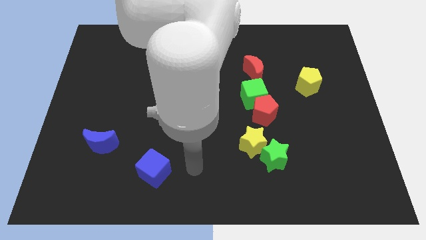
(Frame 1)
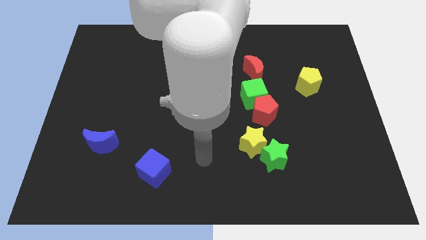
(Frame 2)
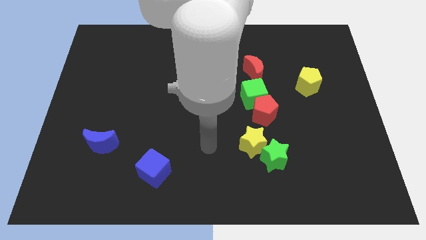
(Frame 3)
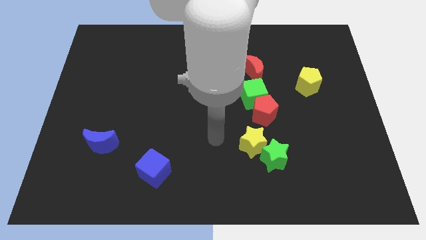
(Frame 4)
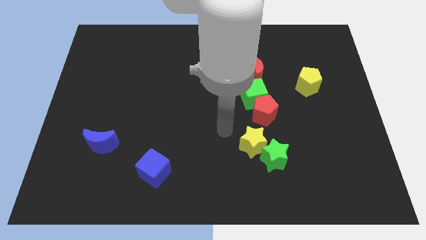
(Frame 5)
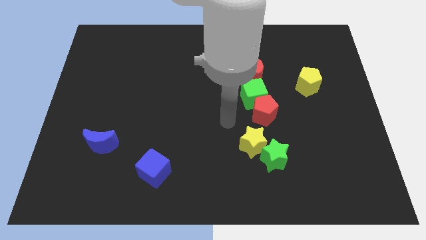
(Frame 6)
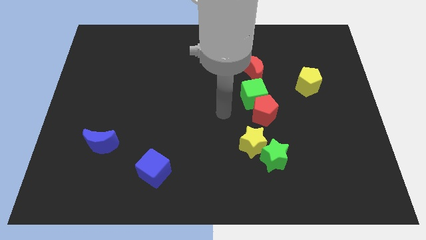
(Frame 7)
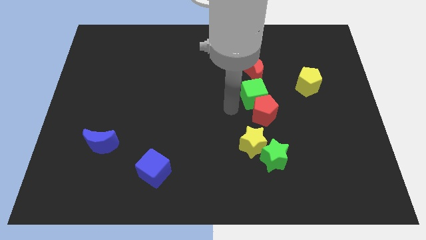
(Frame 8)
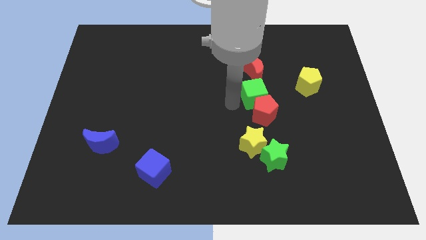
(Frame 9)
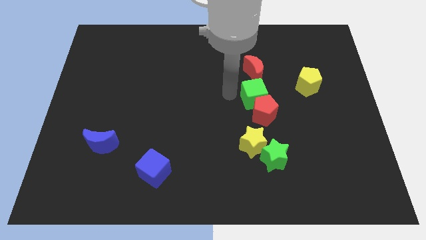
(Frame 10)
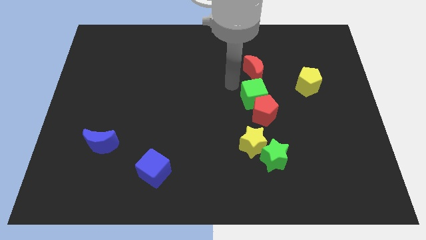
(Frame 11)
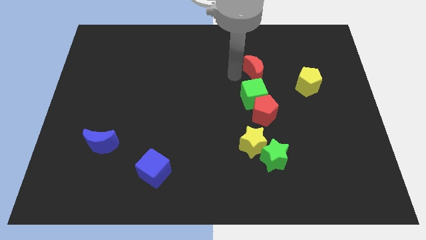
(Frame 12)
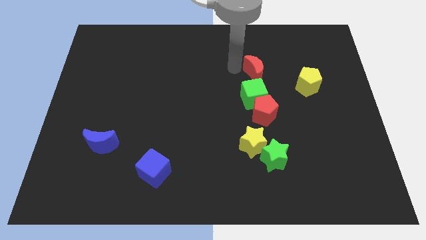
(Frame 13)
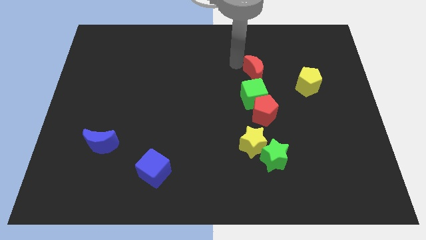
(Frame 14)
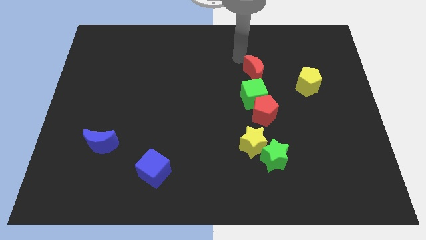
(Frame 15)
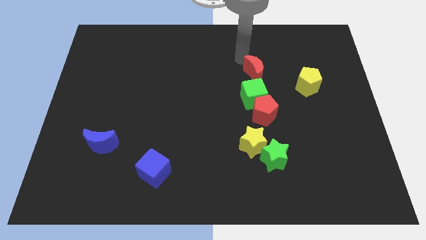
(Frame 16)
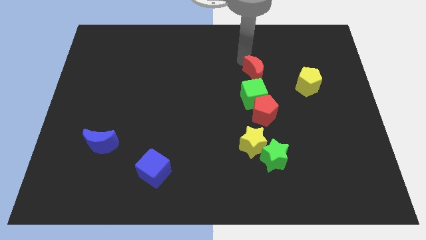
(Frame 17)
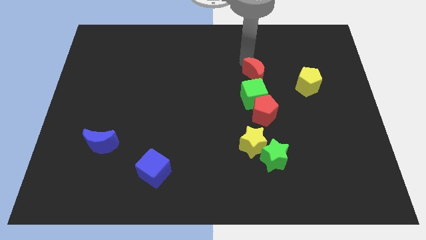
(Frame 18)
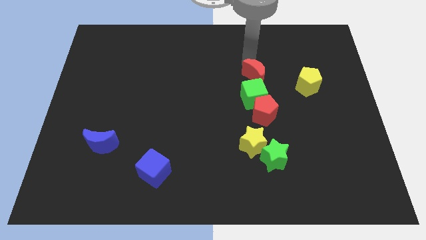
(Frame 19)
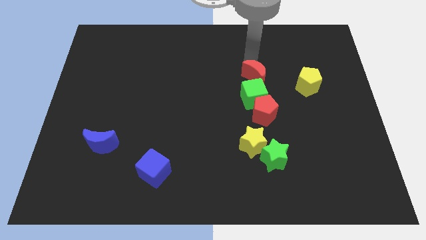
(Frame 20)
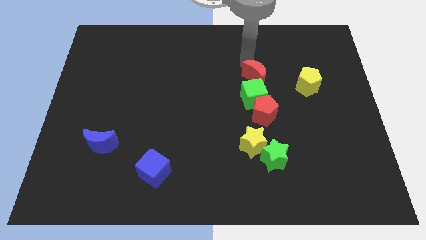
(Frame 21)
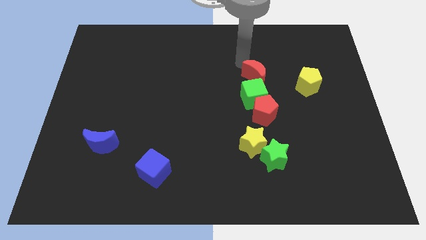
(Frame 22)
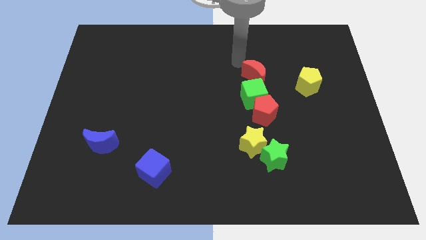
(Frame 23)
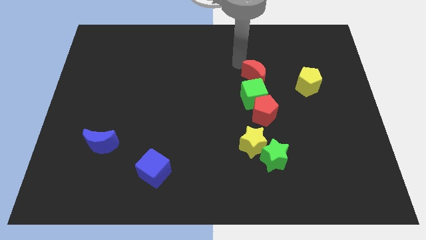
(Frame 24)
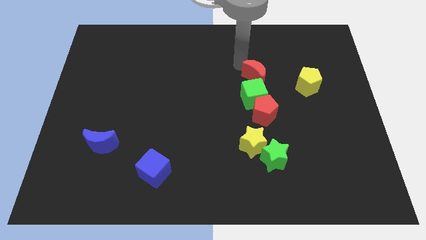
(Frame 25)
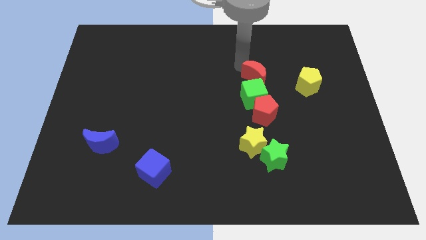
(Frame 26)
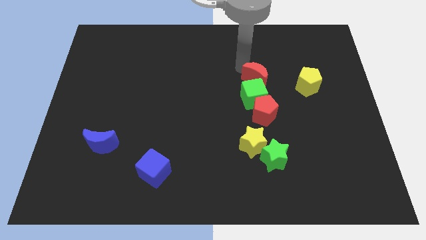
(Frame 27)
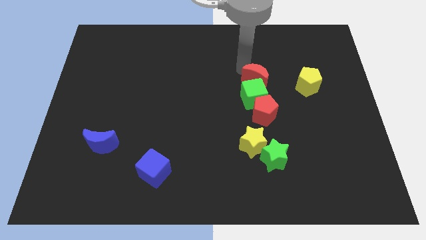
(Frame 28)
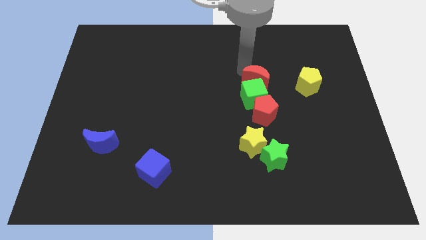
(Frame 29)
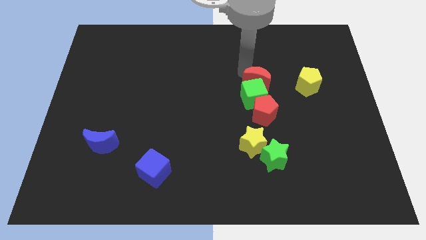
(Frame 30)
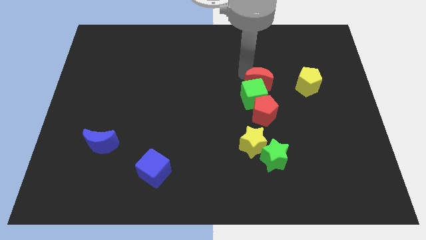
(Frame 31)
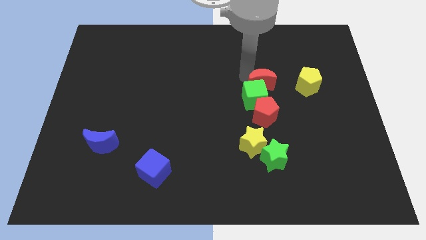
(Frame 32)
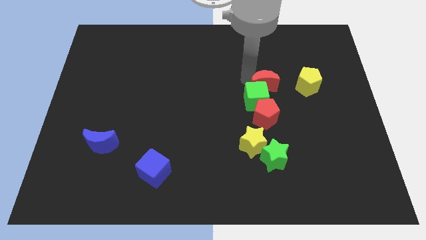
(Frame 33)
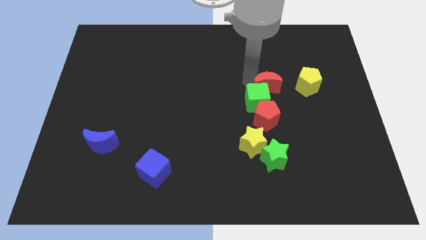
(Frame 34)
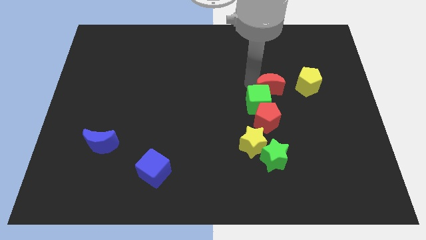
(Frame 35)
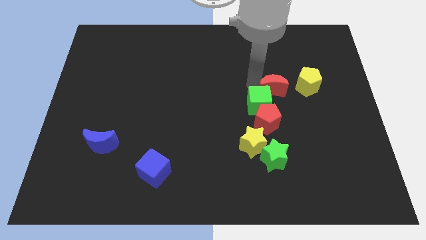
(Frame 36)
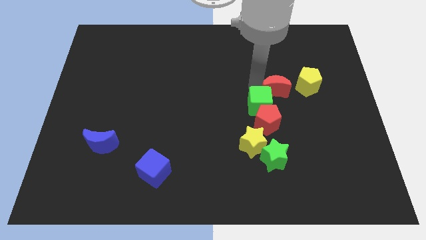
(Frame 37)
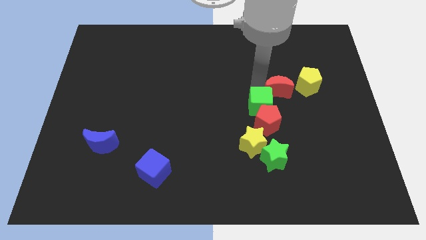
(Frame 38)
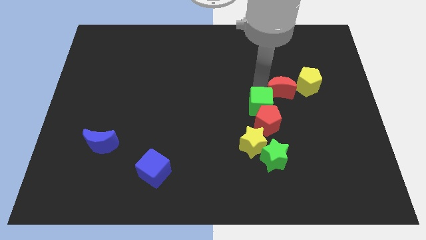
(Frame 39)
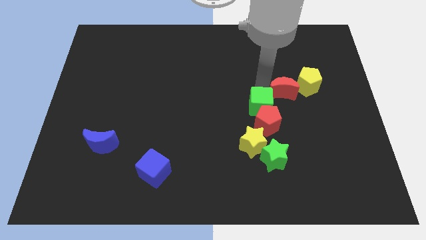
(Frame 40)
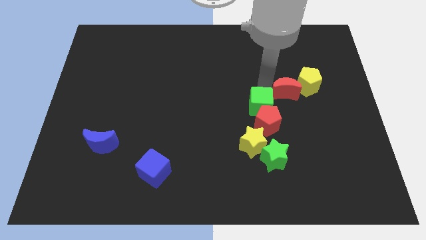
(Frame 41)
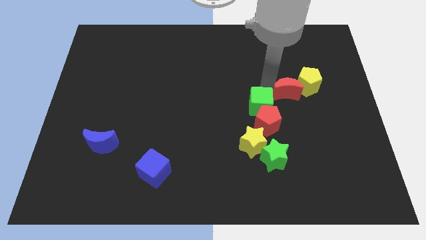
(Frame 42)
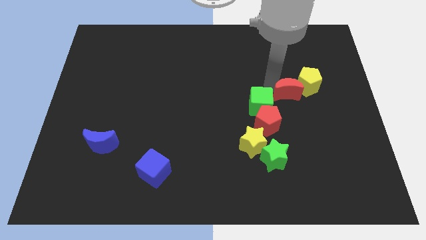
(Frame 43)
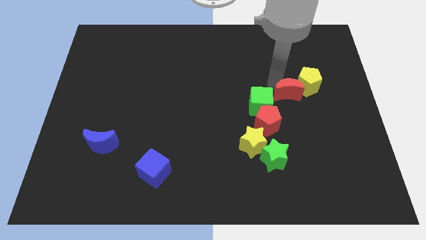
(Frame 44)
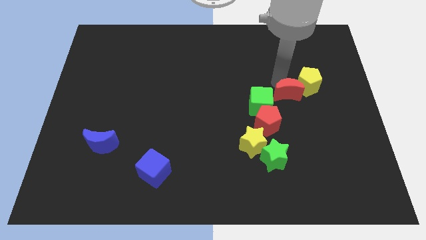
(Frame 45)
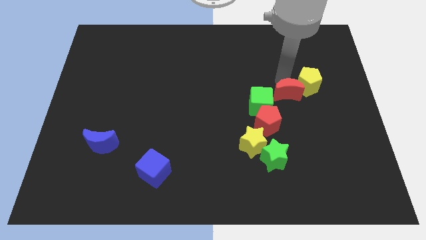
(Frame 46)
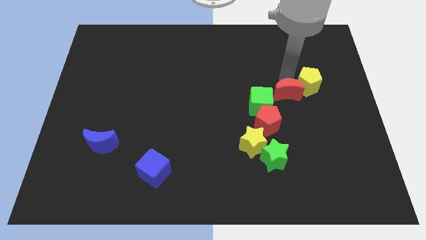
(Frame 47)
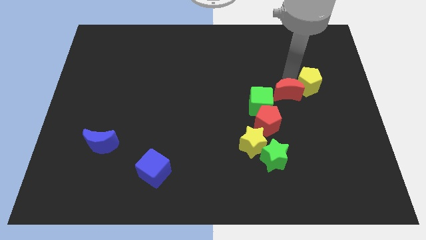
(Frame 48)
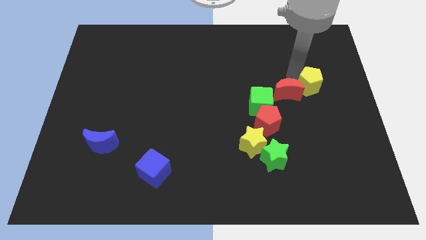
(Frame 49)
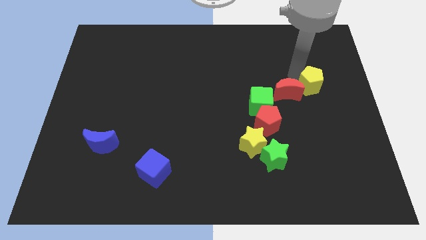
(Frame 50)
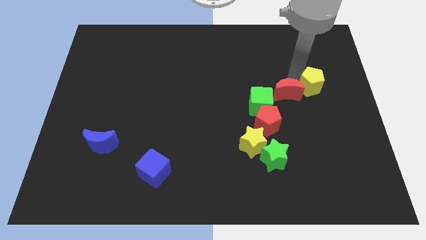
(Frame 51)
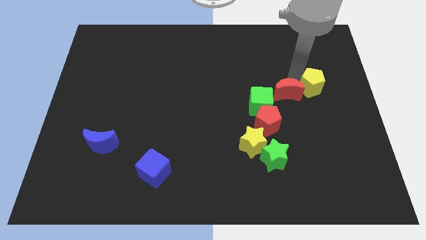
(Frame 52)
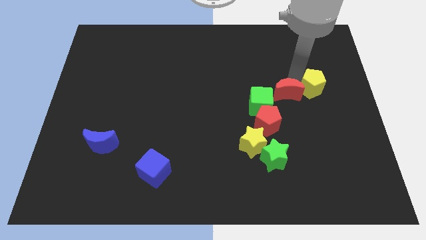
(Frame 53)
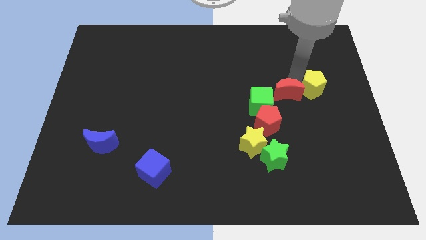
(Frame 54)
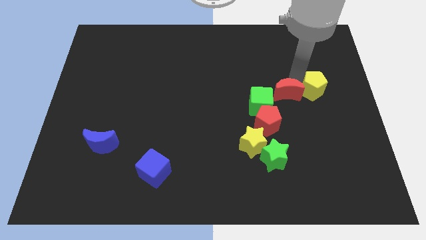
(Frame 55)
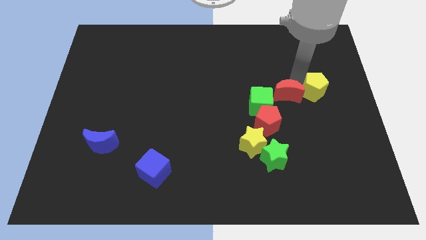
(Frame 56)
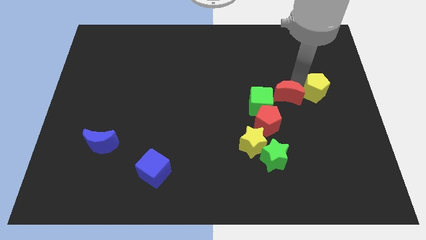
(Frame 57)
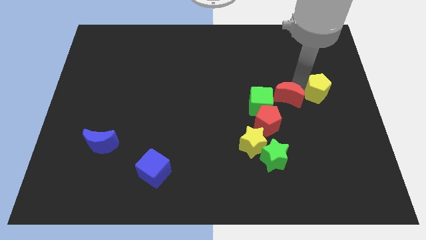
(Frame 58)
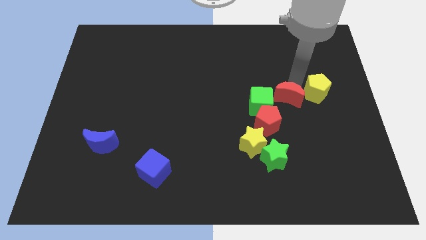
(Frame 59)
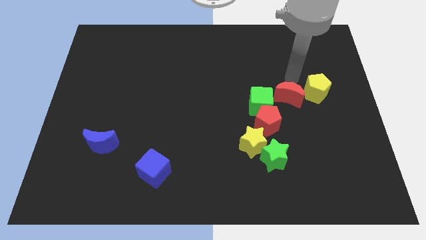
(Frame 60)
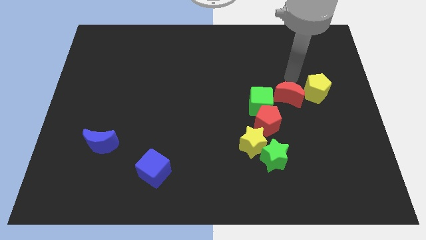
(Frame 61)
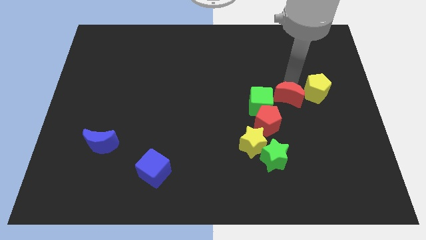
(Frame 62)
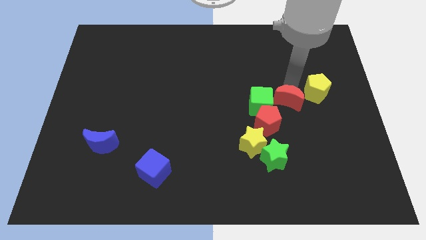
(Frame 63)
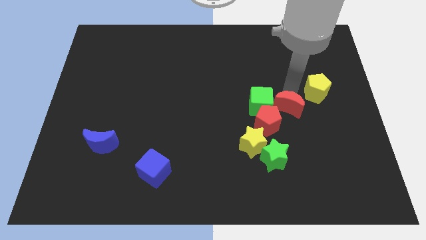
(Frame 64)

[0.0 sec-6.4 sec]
move the red moon to the bottom right side of the green cube

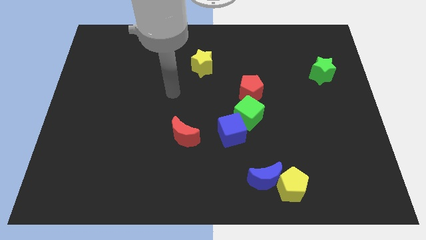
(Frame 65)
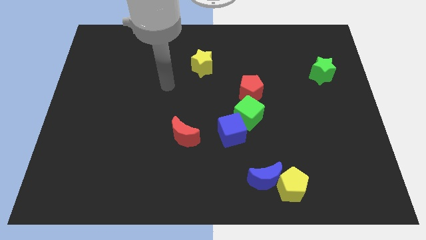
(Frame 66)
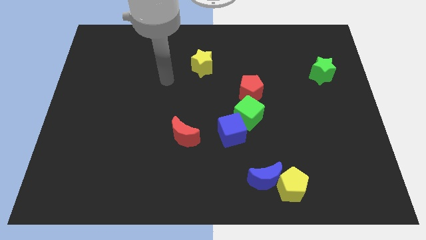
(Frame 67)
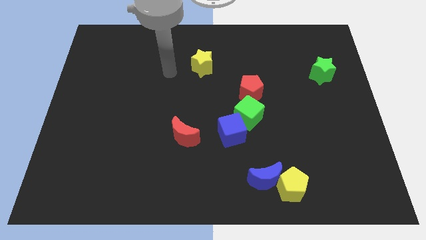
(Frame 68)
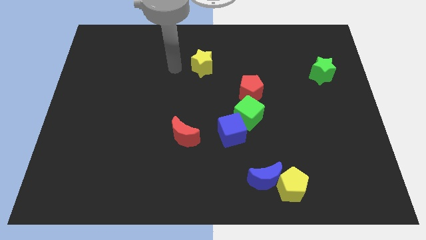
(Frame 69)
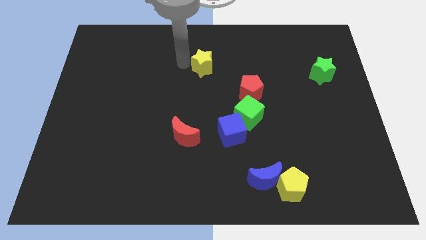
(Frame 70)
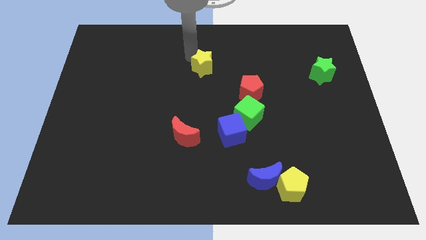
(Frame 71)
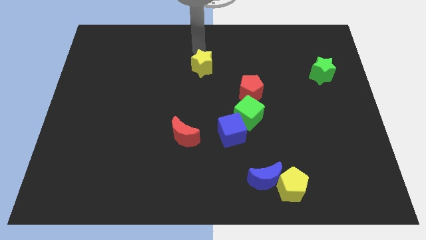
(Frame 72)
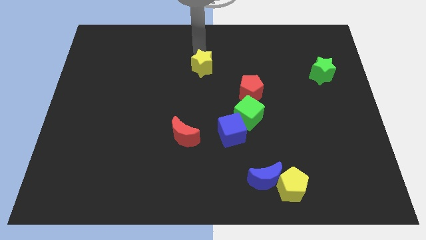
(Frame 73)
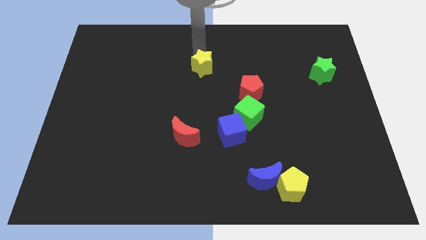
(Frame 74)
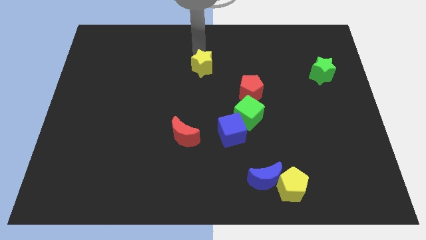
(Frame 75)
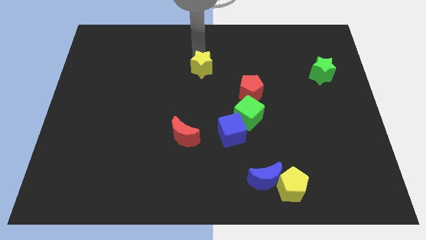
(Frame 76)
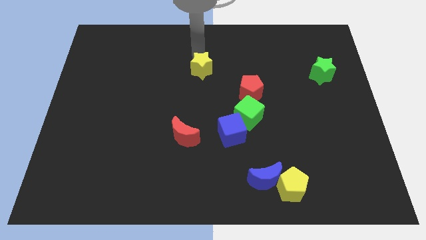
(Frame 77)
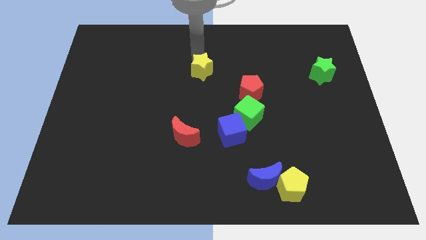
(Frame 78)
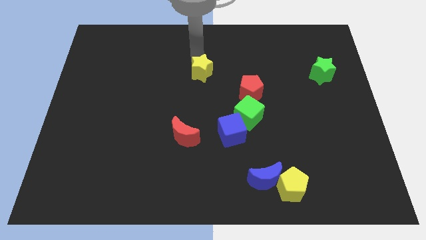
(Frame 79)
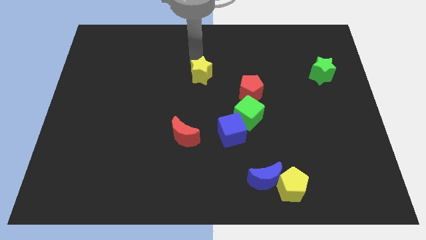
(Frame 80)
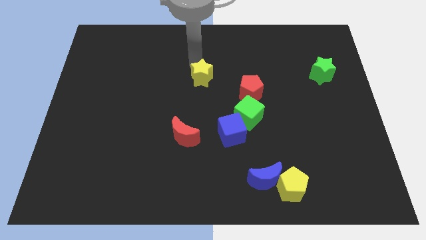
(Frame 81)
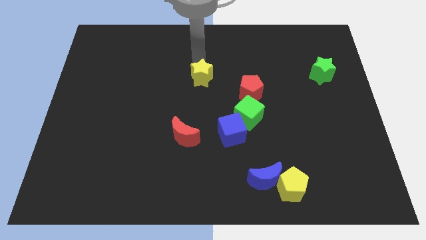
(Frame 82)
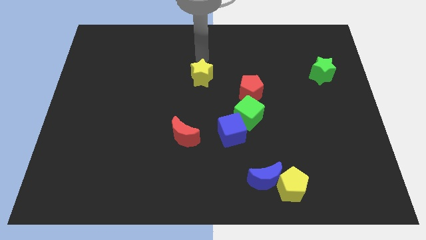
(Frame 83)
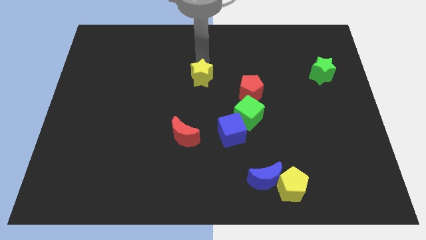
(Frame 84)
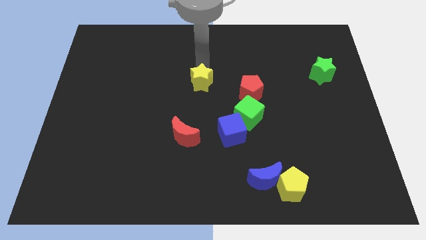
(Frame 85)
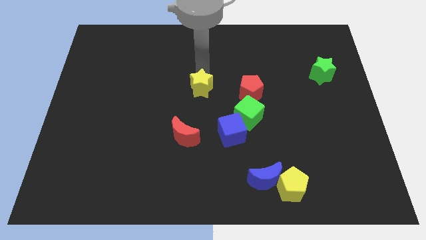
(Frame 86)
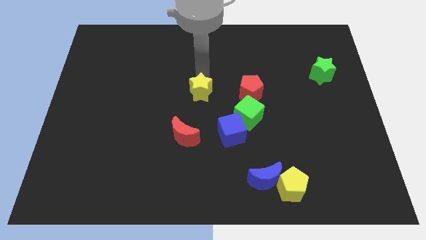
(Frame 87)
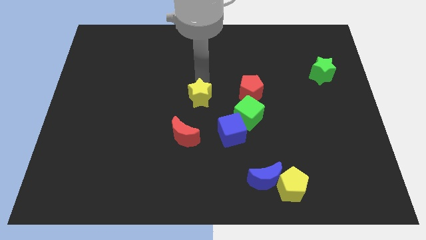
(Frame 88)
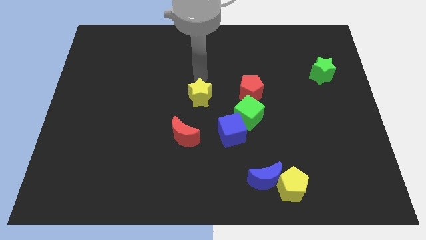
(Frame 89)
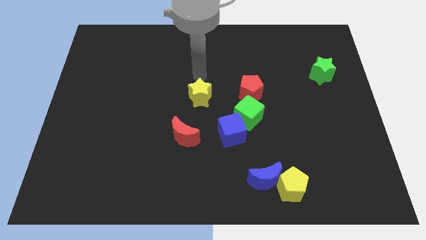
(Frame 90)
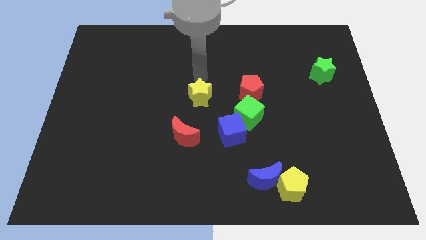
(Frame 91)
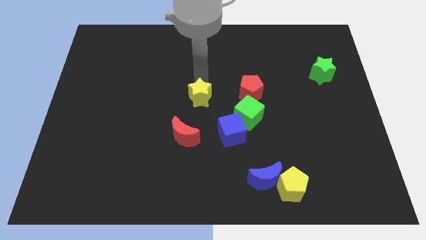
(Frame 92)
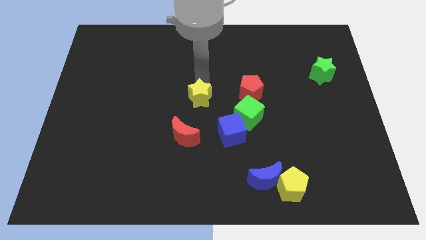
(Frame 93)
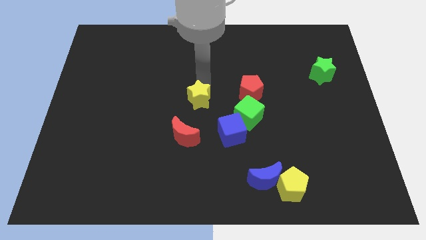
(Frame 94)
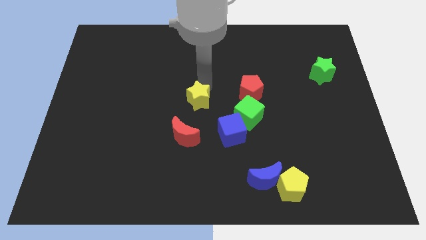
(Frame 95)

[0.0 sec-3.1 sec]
put the yellow star to the left side of the green cube
